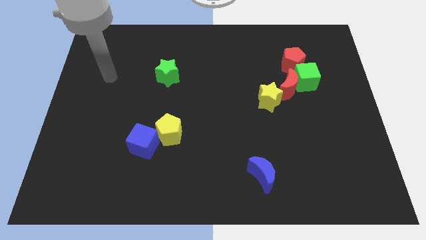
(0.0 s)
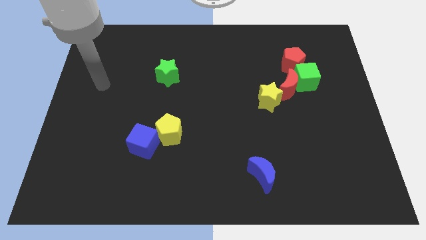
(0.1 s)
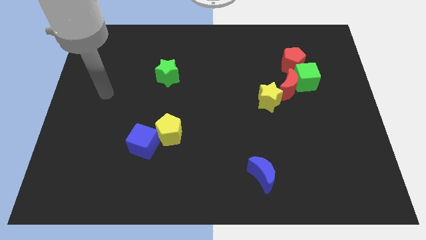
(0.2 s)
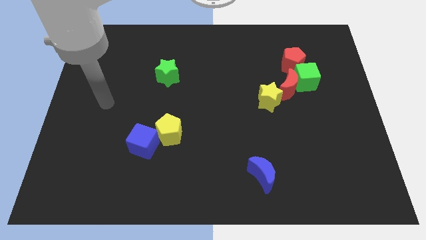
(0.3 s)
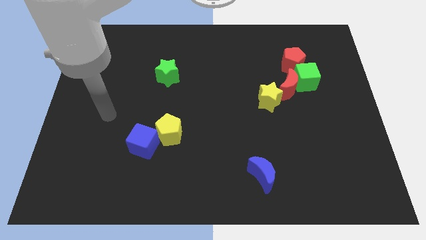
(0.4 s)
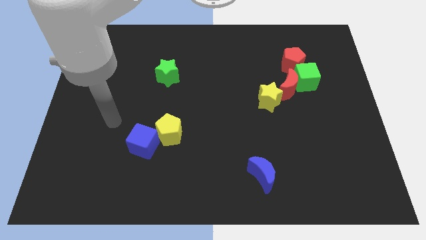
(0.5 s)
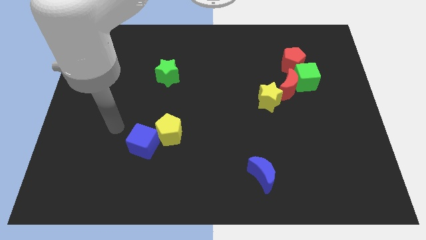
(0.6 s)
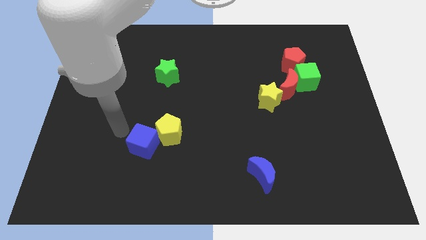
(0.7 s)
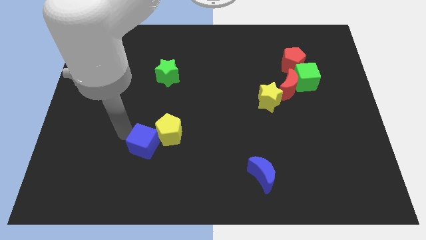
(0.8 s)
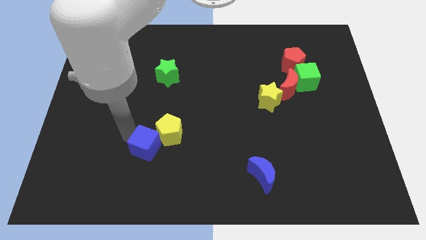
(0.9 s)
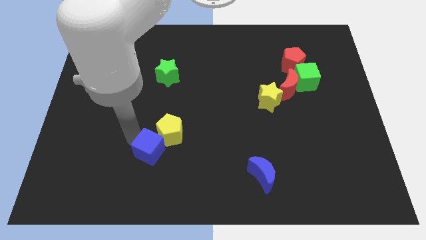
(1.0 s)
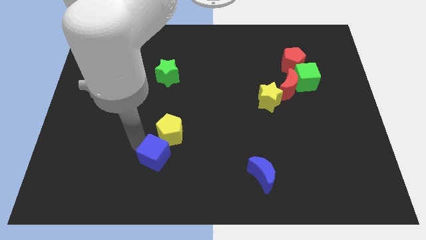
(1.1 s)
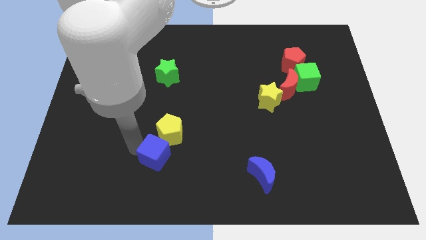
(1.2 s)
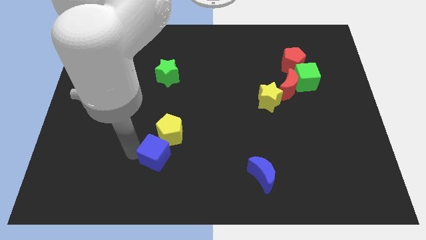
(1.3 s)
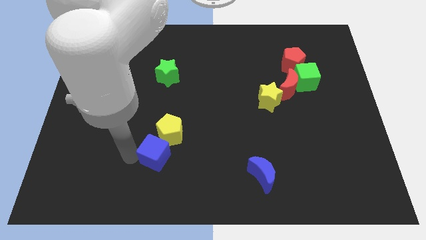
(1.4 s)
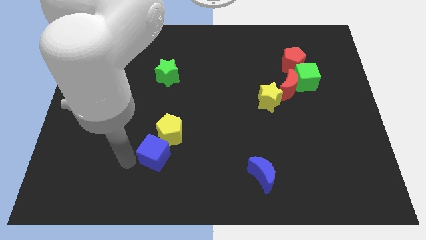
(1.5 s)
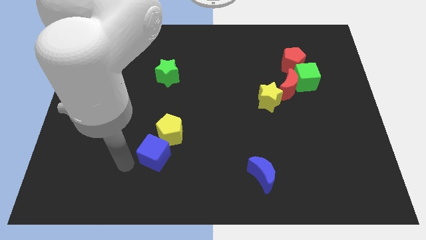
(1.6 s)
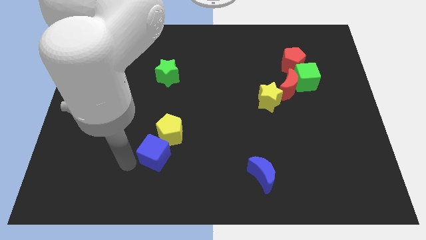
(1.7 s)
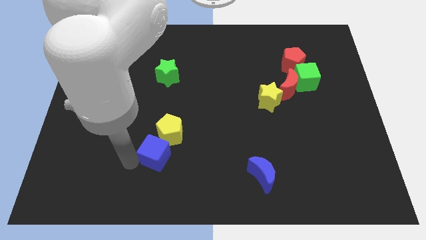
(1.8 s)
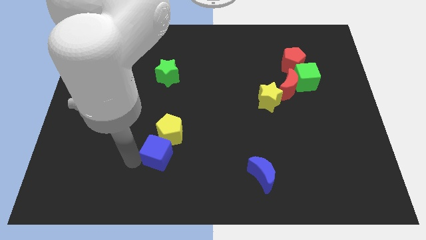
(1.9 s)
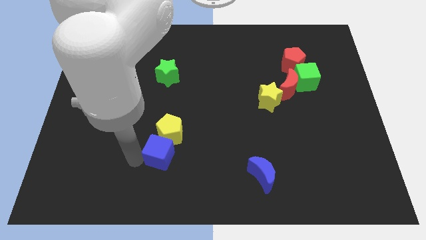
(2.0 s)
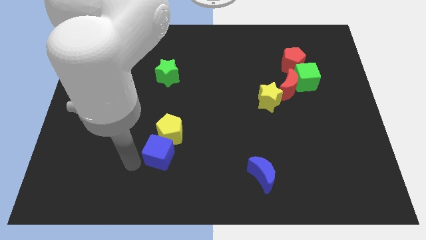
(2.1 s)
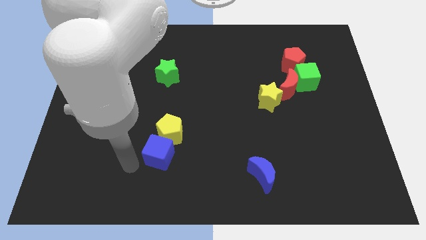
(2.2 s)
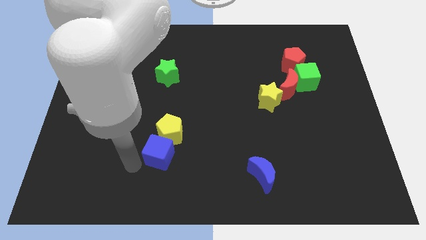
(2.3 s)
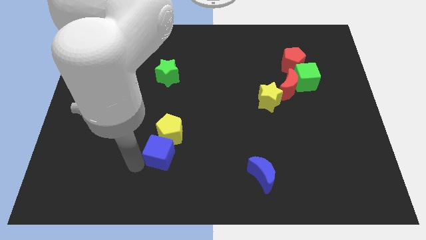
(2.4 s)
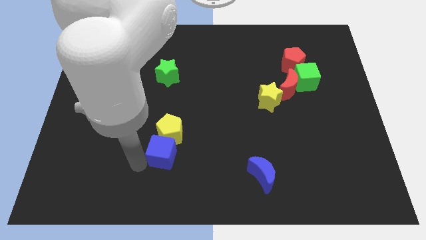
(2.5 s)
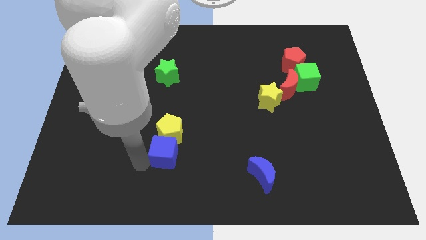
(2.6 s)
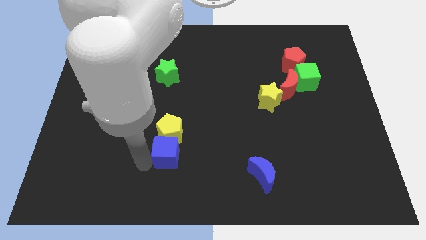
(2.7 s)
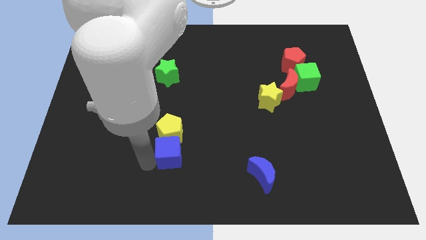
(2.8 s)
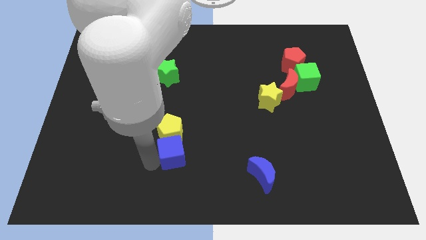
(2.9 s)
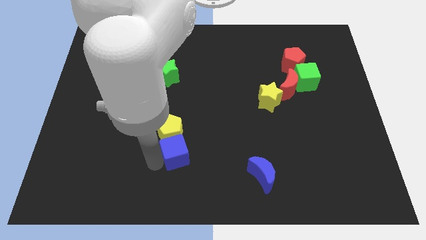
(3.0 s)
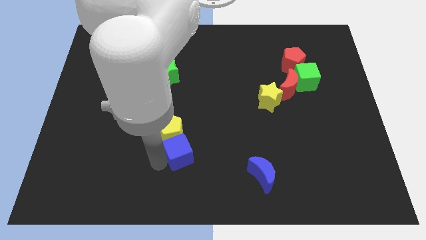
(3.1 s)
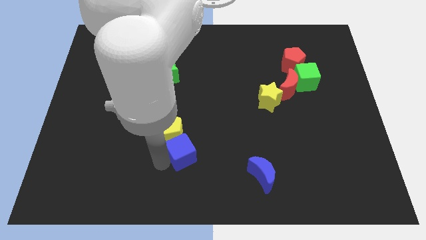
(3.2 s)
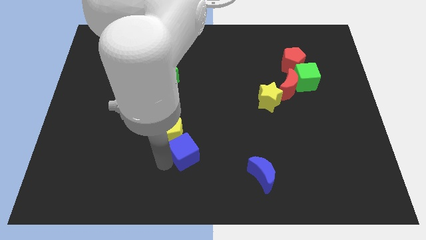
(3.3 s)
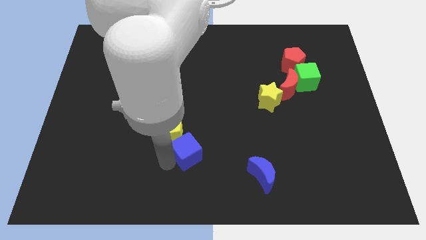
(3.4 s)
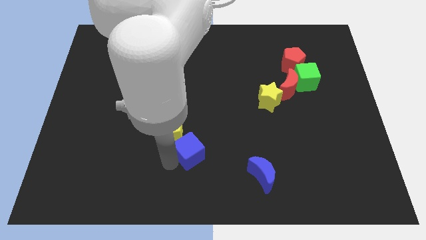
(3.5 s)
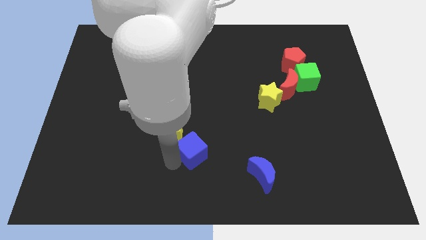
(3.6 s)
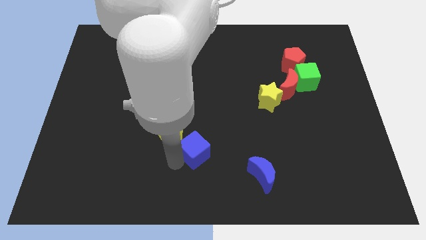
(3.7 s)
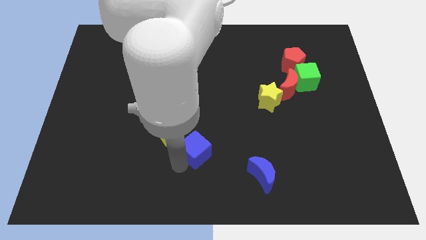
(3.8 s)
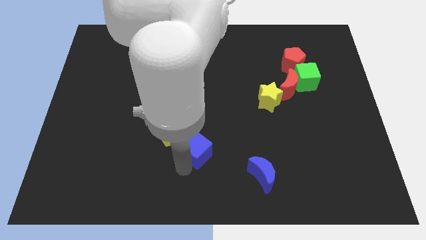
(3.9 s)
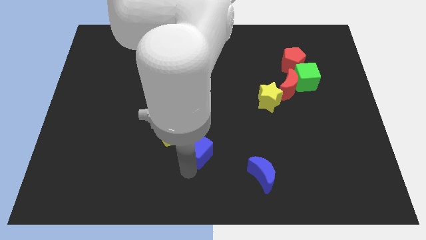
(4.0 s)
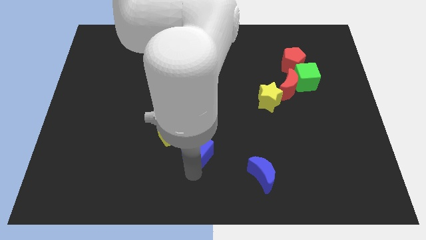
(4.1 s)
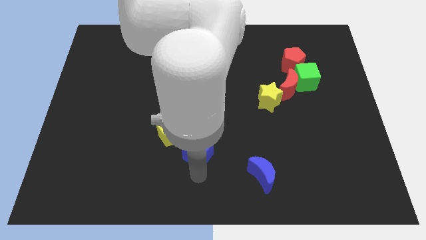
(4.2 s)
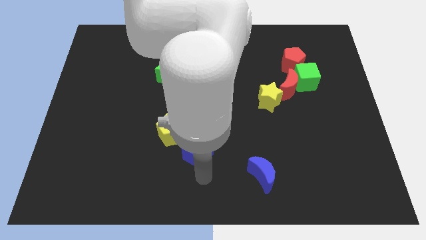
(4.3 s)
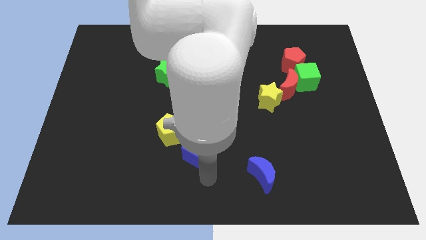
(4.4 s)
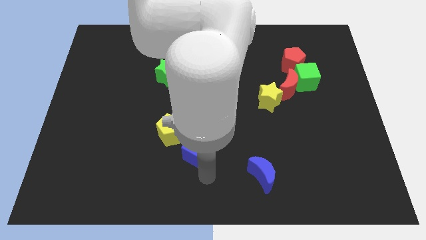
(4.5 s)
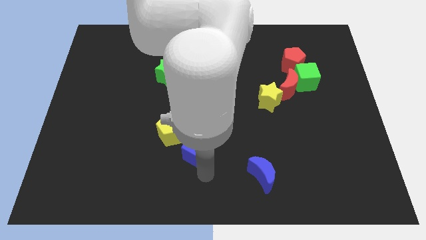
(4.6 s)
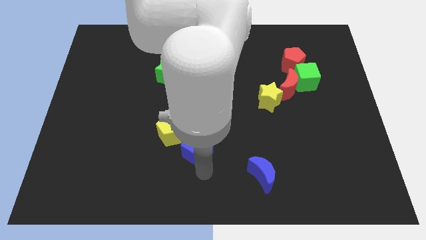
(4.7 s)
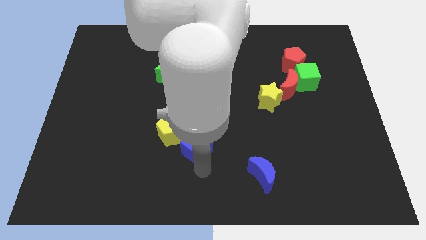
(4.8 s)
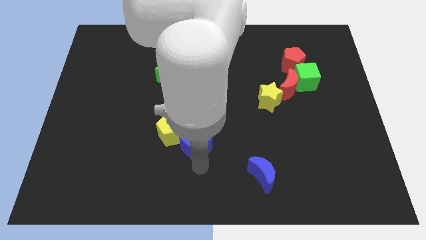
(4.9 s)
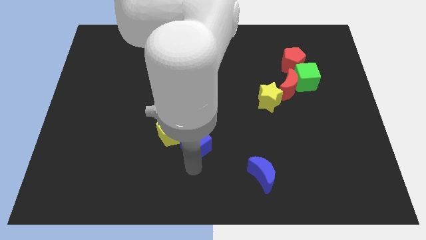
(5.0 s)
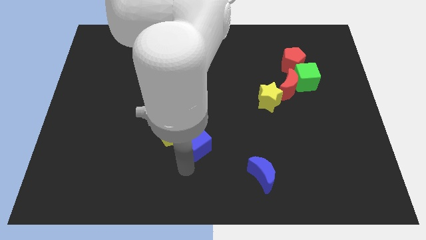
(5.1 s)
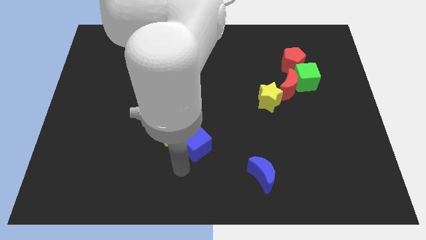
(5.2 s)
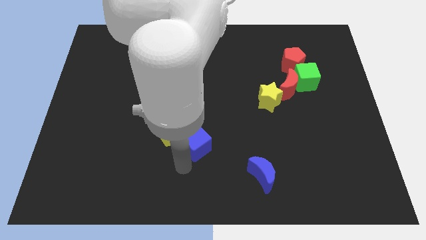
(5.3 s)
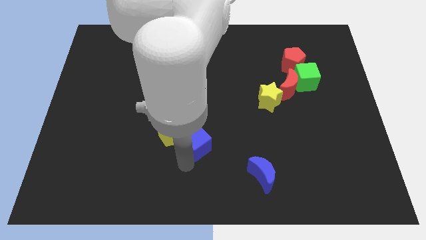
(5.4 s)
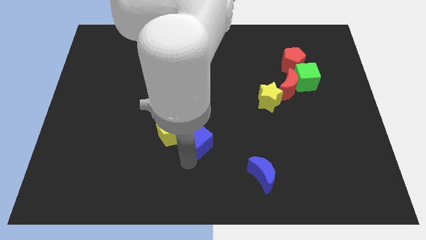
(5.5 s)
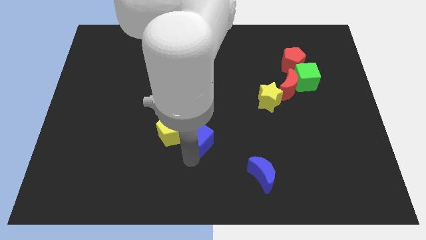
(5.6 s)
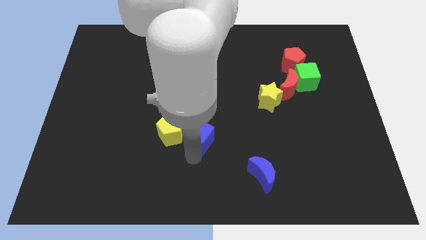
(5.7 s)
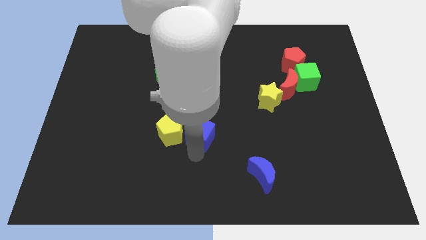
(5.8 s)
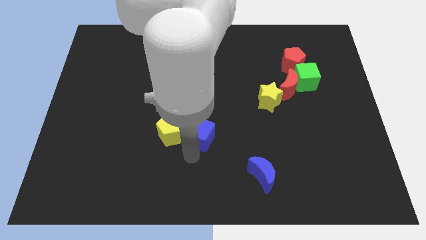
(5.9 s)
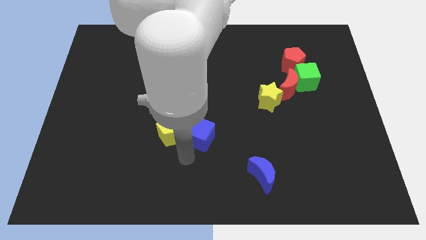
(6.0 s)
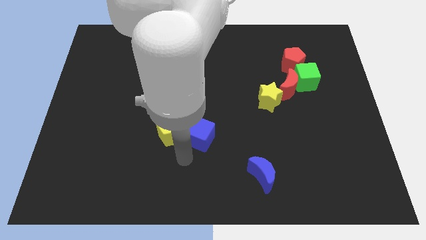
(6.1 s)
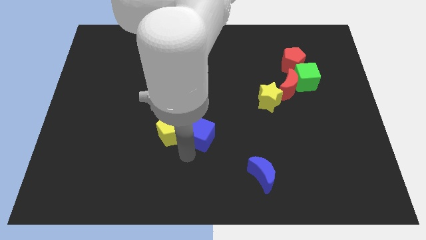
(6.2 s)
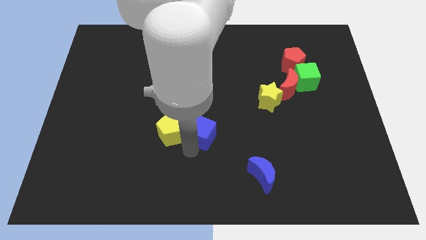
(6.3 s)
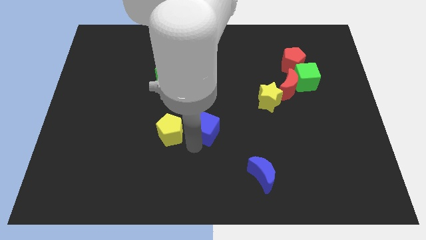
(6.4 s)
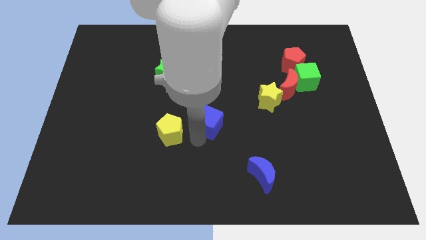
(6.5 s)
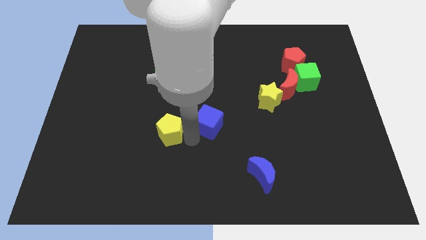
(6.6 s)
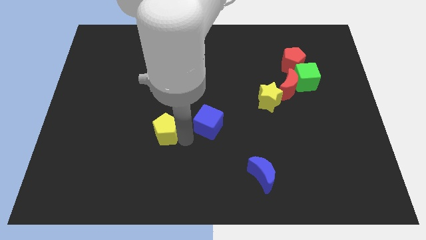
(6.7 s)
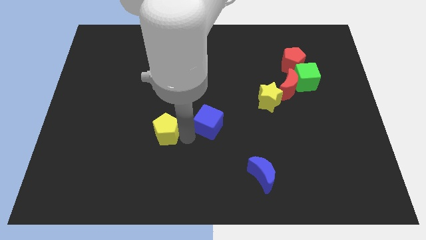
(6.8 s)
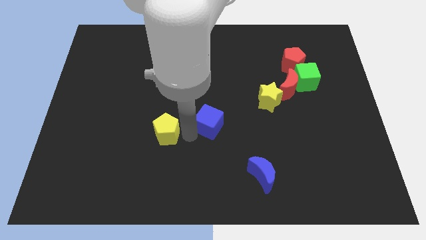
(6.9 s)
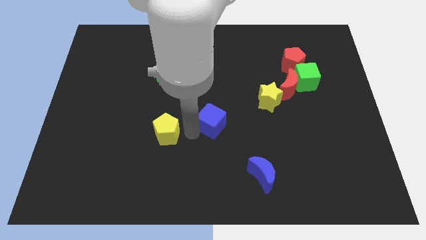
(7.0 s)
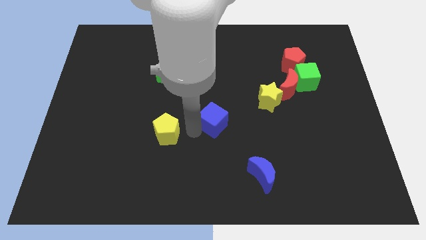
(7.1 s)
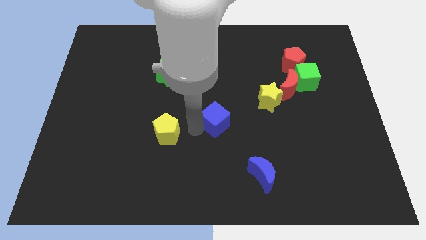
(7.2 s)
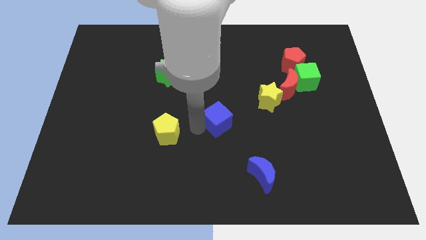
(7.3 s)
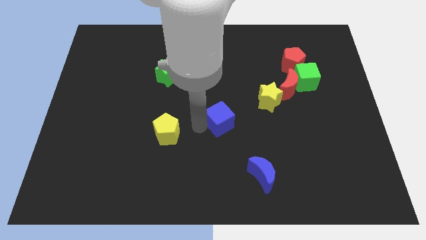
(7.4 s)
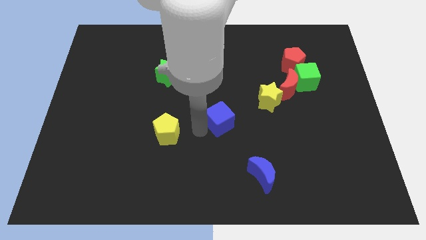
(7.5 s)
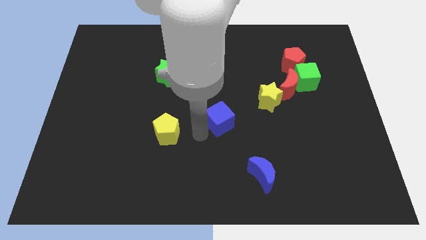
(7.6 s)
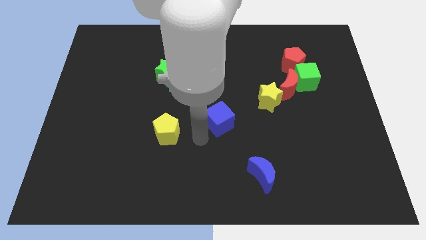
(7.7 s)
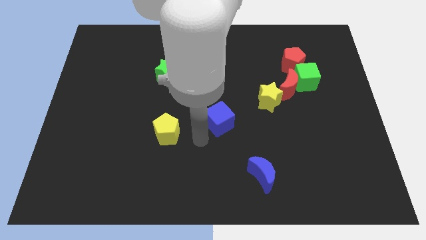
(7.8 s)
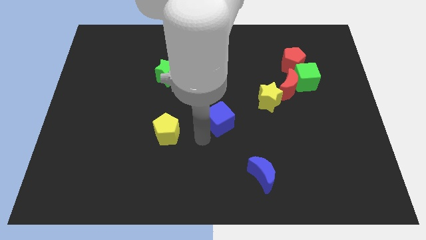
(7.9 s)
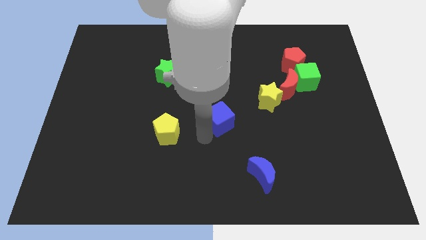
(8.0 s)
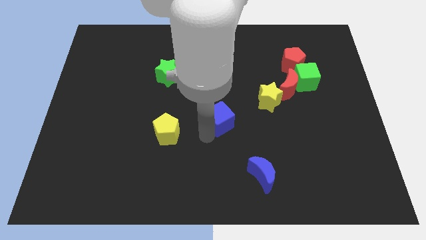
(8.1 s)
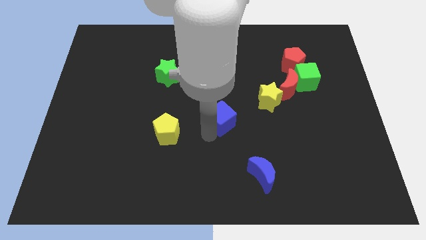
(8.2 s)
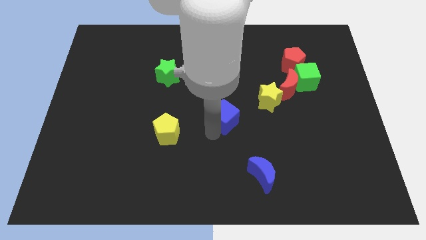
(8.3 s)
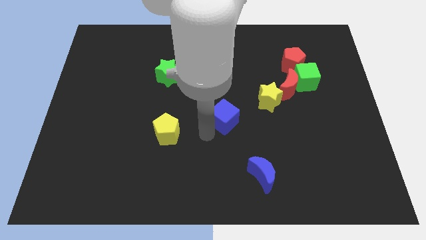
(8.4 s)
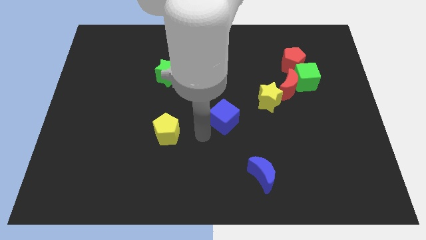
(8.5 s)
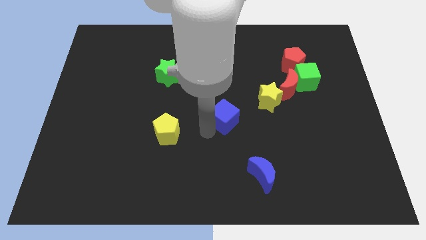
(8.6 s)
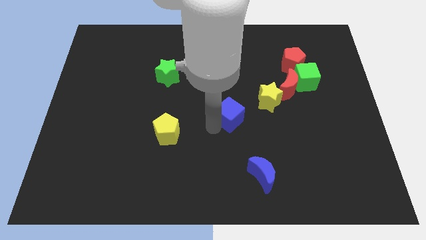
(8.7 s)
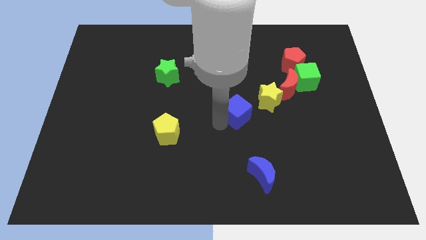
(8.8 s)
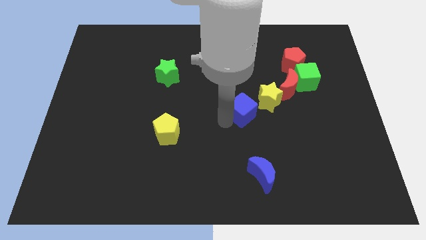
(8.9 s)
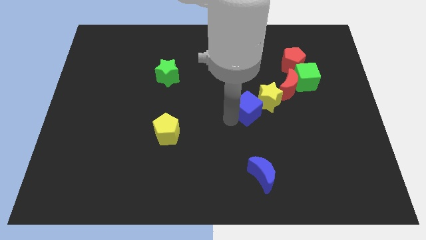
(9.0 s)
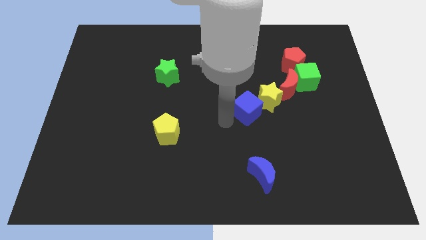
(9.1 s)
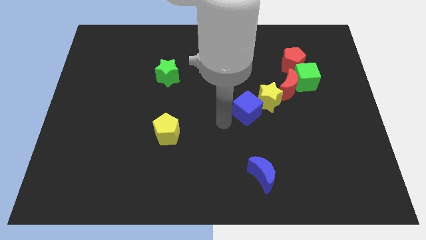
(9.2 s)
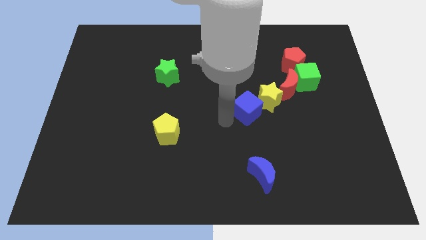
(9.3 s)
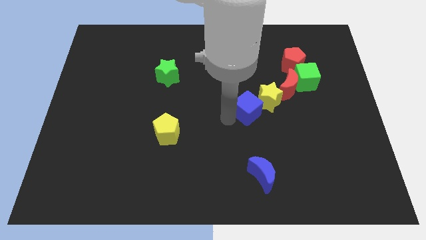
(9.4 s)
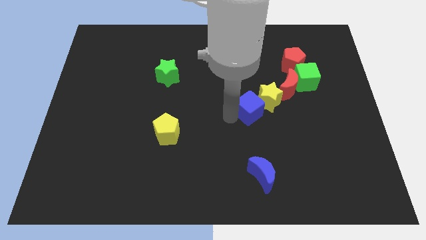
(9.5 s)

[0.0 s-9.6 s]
slide the blue cube next to the yellow star
